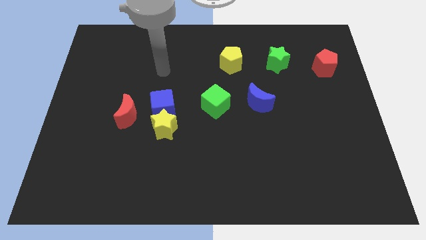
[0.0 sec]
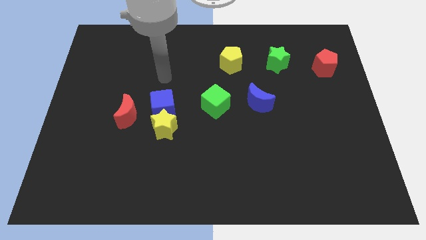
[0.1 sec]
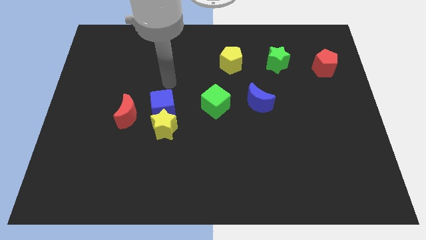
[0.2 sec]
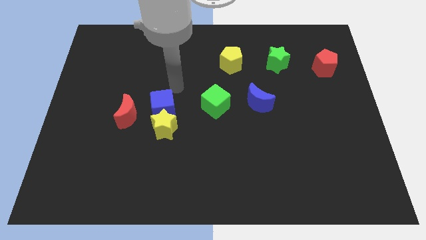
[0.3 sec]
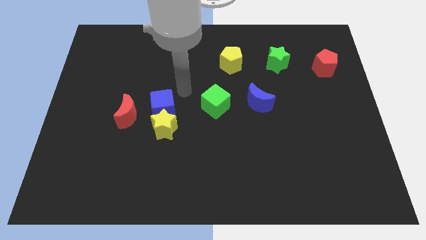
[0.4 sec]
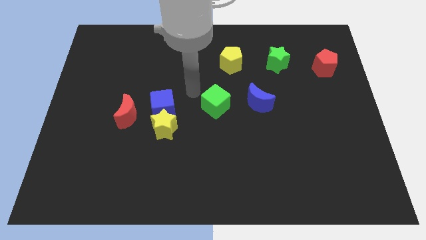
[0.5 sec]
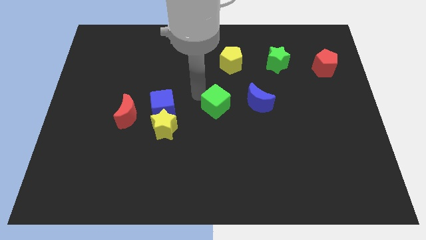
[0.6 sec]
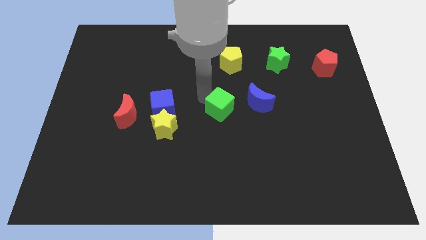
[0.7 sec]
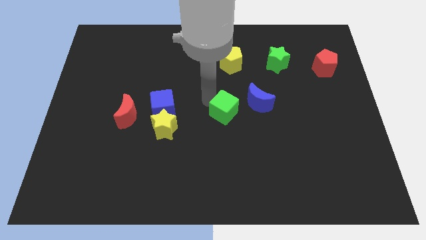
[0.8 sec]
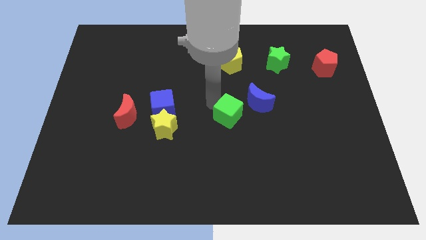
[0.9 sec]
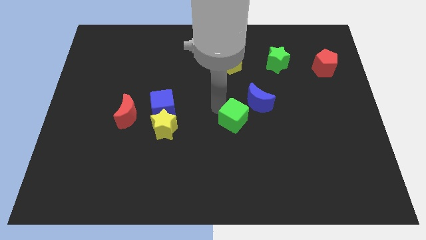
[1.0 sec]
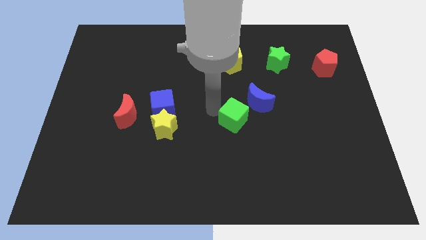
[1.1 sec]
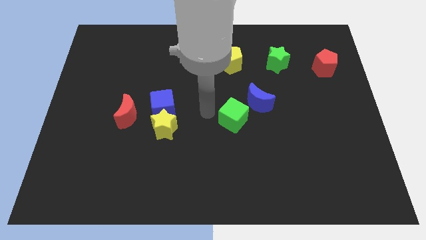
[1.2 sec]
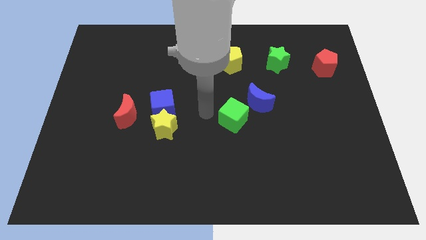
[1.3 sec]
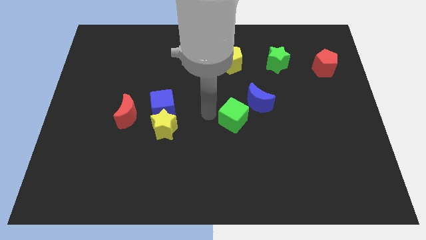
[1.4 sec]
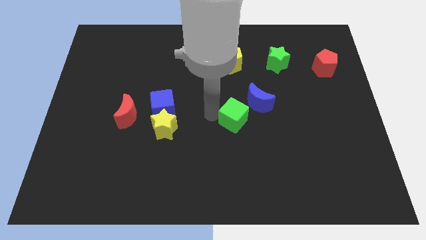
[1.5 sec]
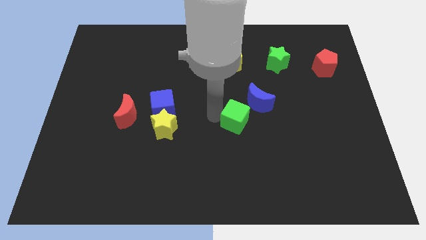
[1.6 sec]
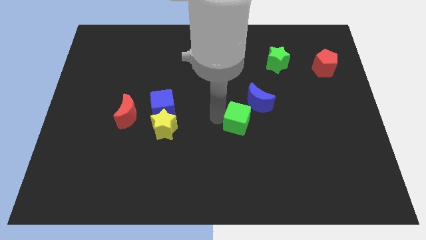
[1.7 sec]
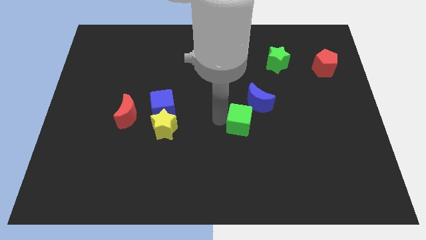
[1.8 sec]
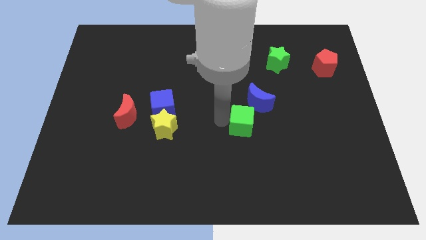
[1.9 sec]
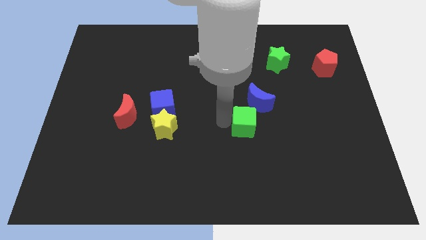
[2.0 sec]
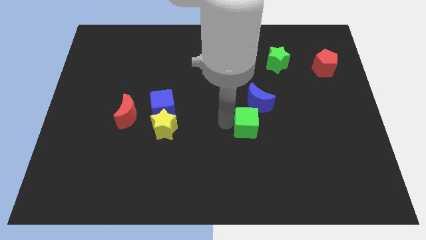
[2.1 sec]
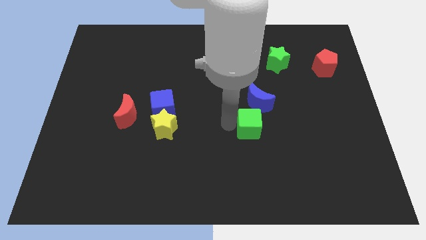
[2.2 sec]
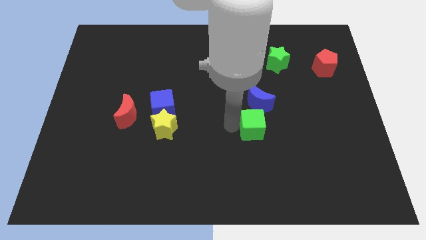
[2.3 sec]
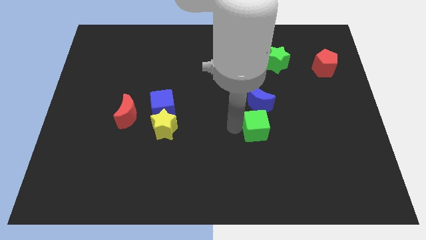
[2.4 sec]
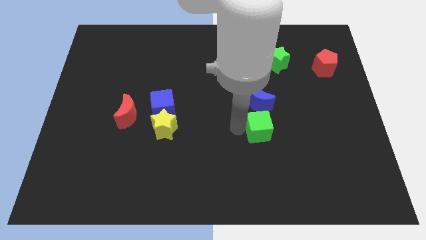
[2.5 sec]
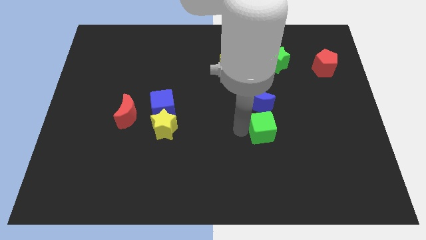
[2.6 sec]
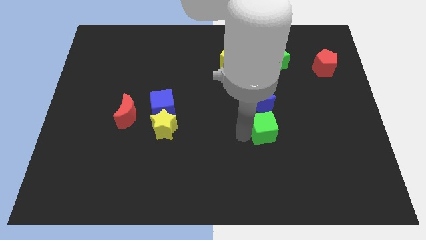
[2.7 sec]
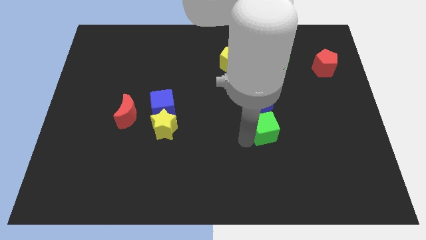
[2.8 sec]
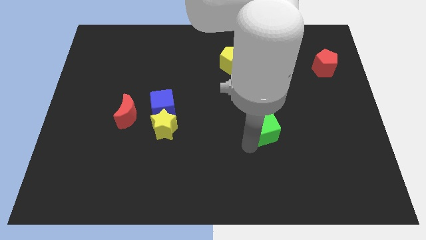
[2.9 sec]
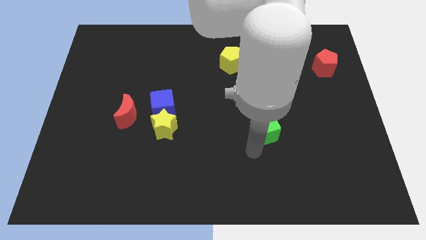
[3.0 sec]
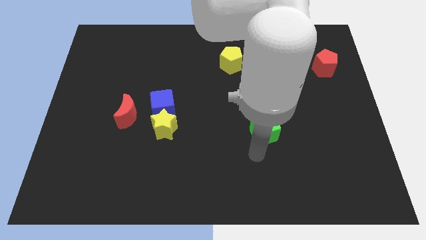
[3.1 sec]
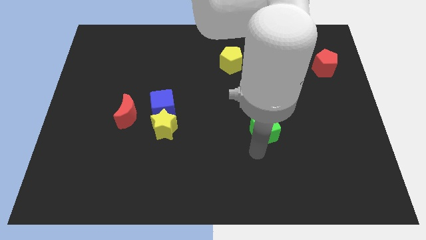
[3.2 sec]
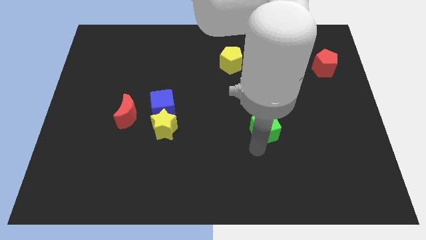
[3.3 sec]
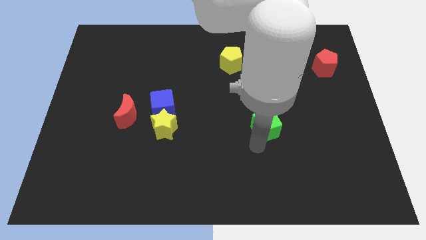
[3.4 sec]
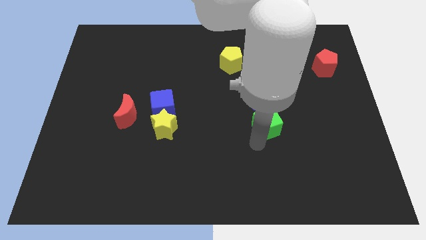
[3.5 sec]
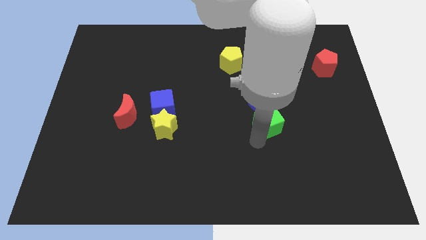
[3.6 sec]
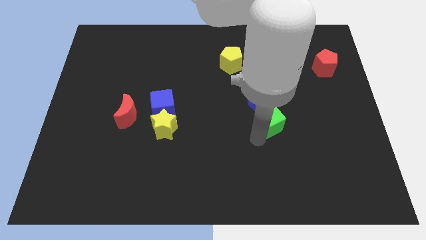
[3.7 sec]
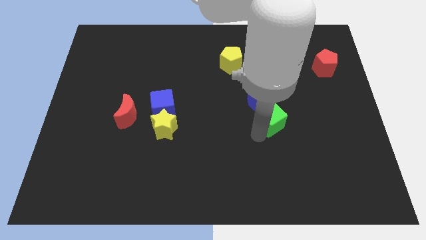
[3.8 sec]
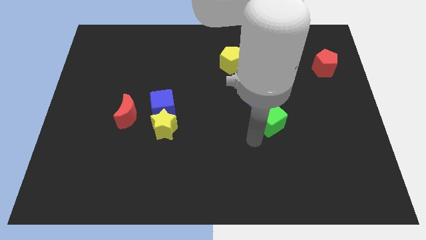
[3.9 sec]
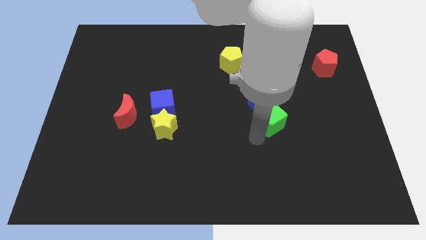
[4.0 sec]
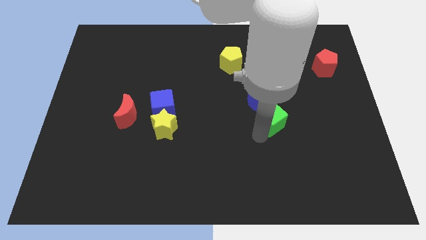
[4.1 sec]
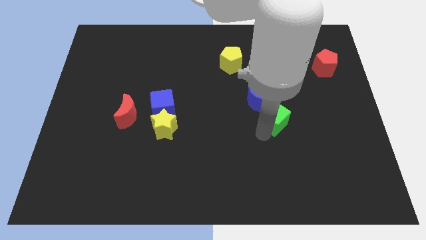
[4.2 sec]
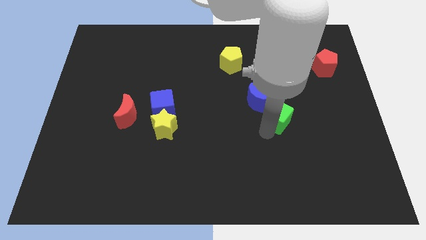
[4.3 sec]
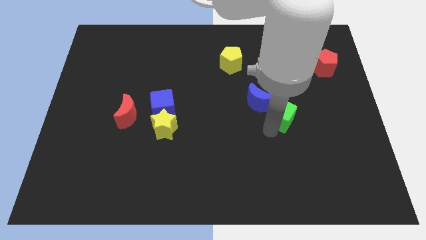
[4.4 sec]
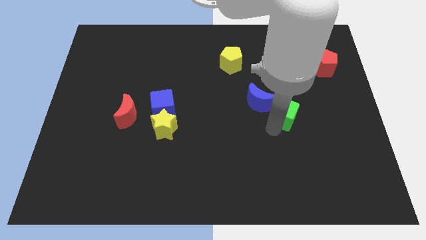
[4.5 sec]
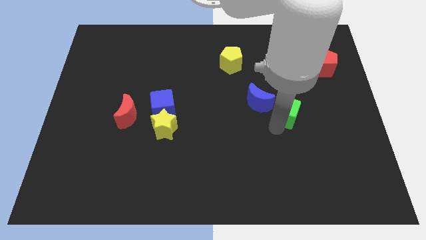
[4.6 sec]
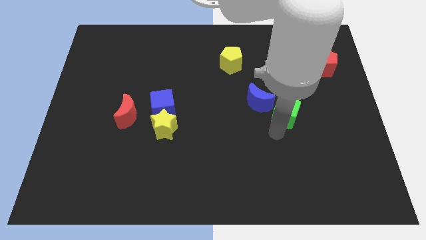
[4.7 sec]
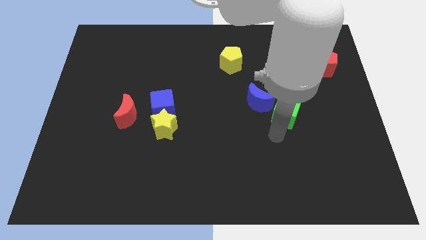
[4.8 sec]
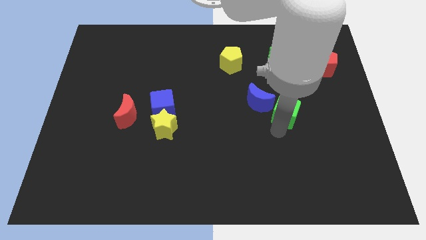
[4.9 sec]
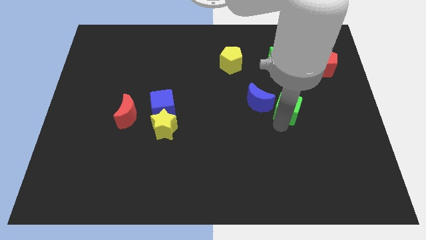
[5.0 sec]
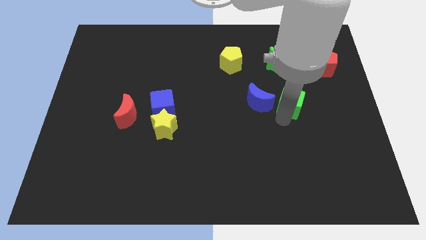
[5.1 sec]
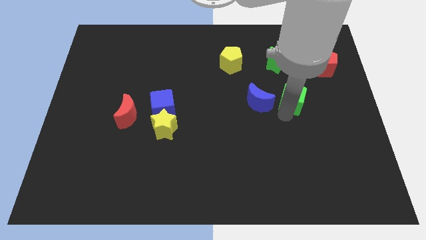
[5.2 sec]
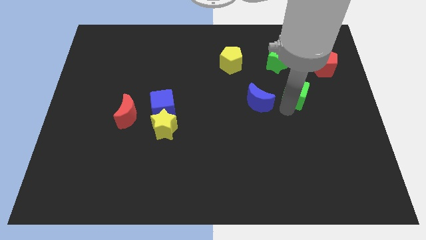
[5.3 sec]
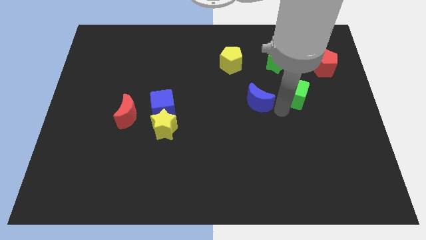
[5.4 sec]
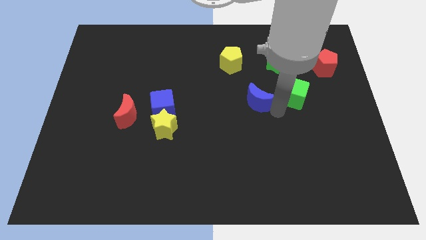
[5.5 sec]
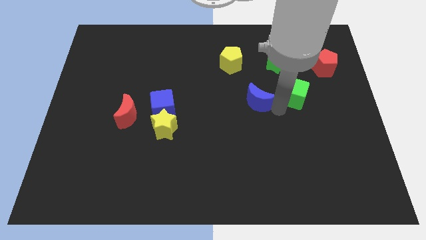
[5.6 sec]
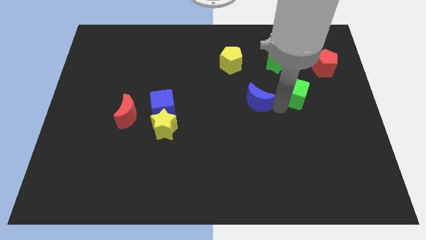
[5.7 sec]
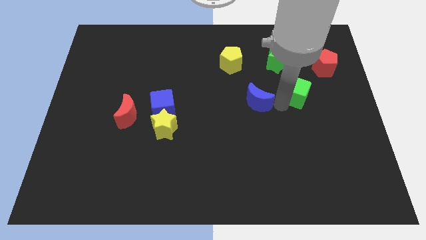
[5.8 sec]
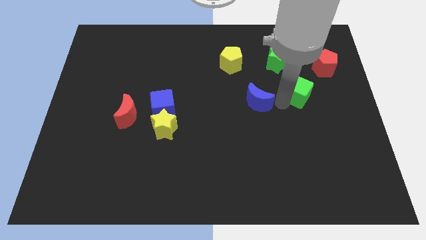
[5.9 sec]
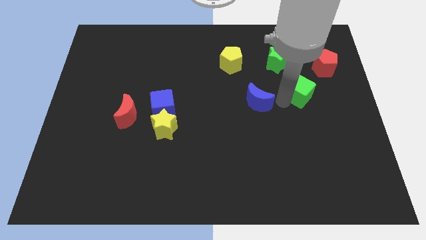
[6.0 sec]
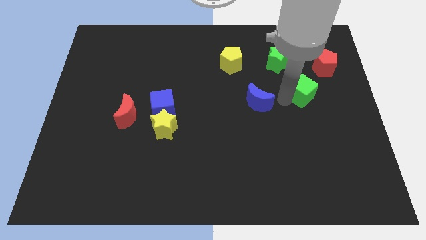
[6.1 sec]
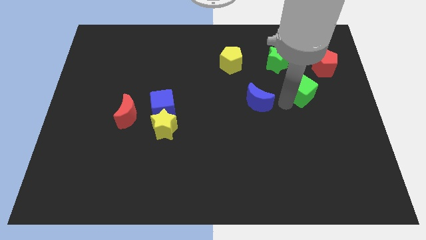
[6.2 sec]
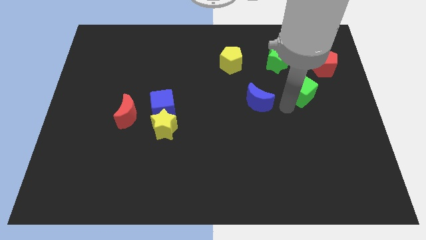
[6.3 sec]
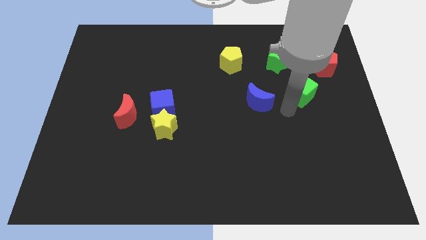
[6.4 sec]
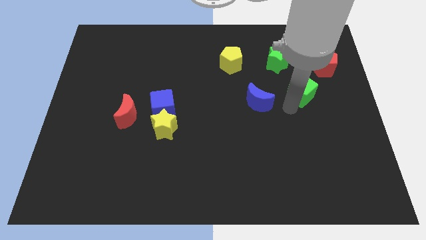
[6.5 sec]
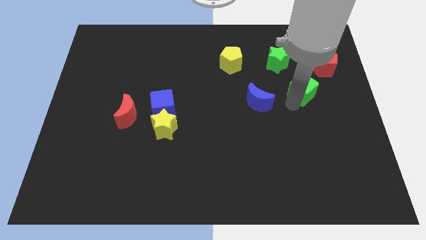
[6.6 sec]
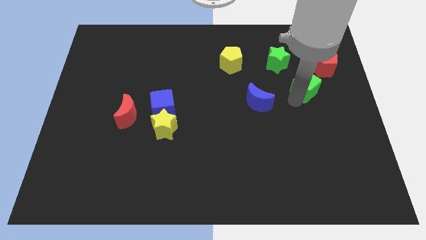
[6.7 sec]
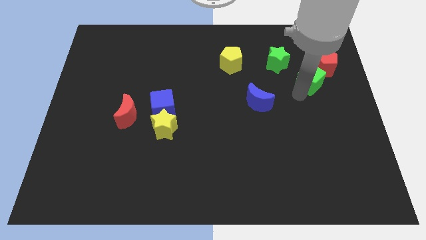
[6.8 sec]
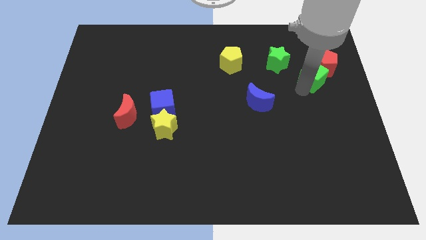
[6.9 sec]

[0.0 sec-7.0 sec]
push the green cube to the red pentagon
